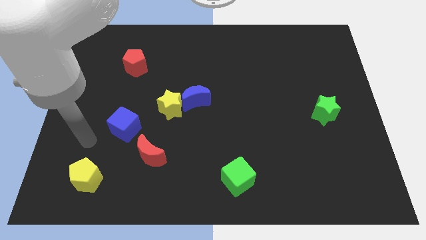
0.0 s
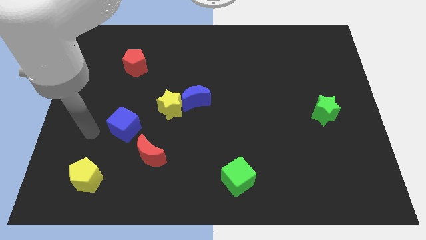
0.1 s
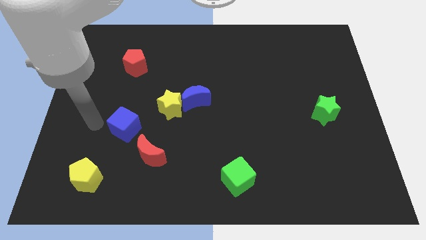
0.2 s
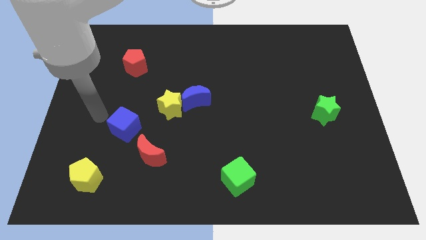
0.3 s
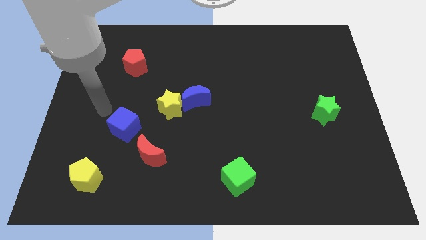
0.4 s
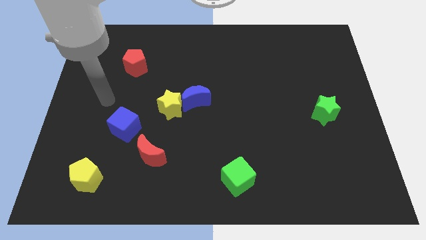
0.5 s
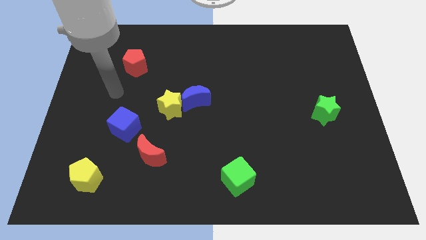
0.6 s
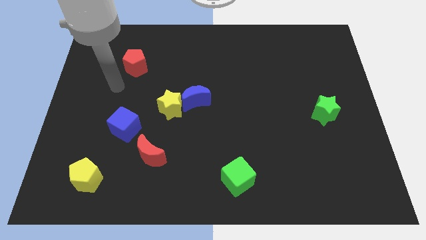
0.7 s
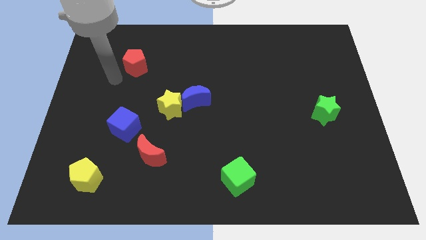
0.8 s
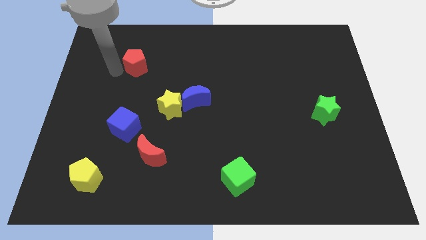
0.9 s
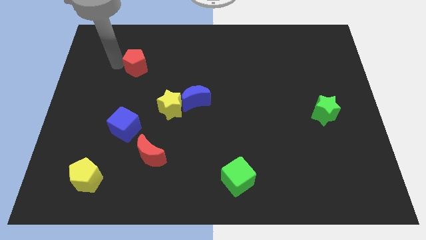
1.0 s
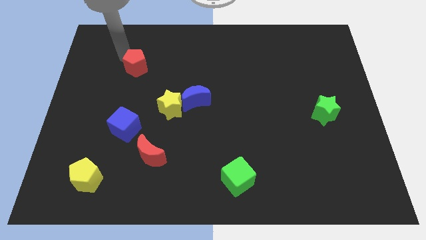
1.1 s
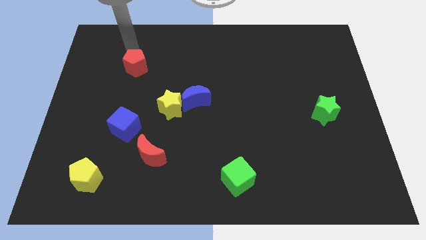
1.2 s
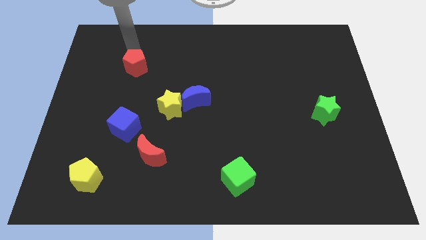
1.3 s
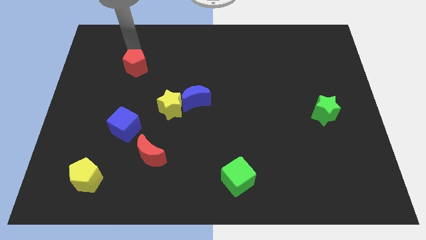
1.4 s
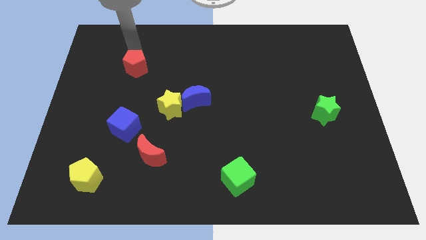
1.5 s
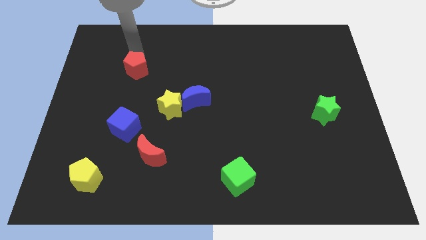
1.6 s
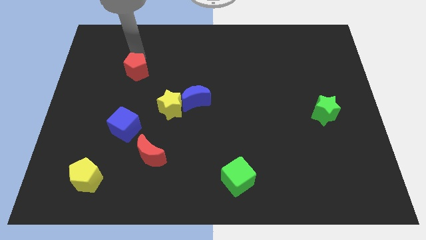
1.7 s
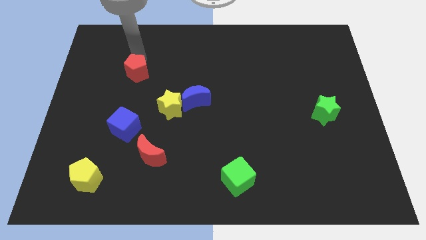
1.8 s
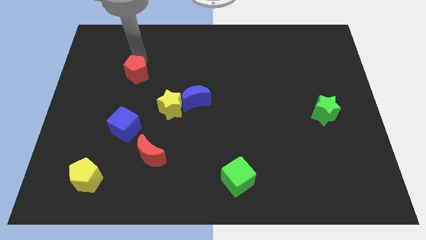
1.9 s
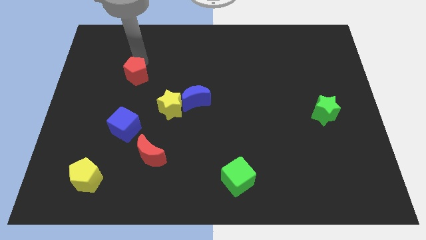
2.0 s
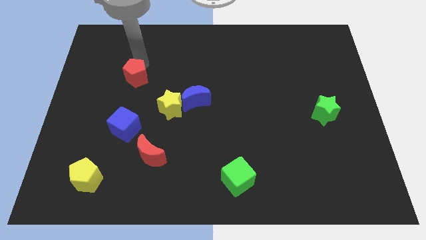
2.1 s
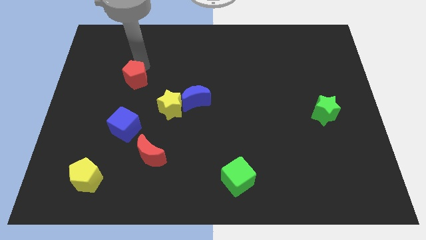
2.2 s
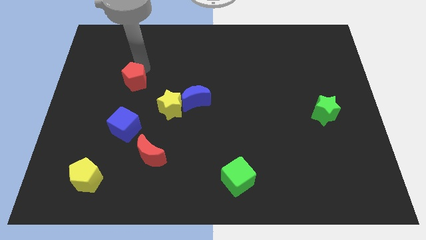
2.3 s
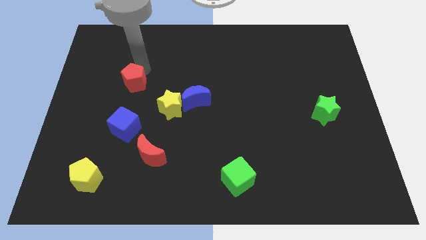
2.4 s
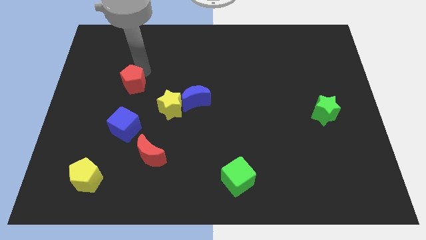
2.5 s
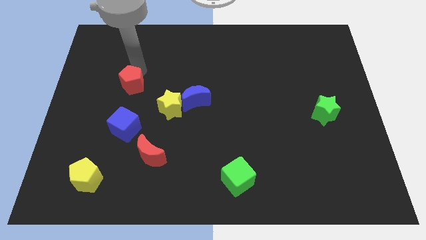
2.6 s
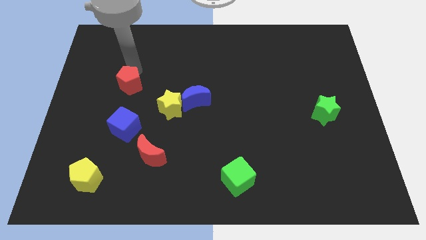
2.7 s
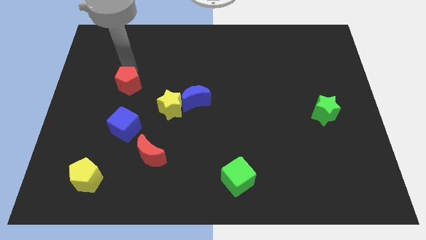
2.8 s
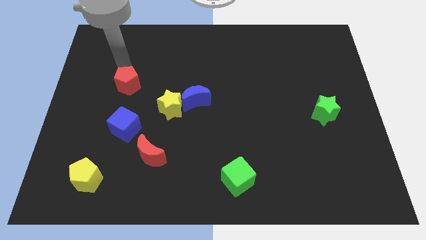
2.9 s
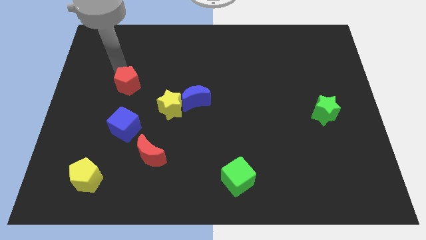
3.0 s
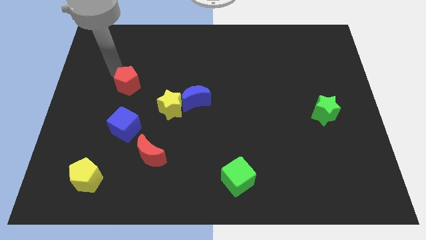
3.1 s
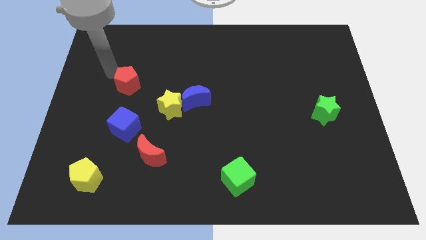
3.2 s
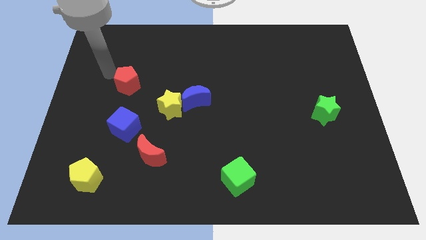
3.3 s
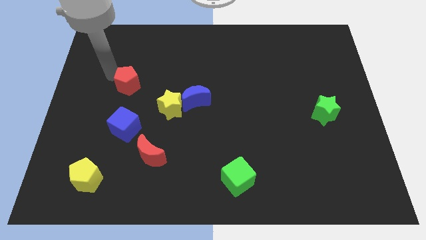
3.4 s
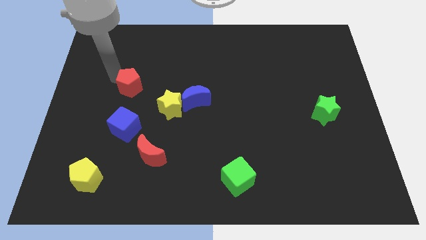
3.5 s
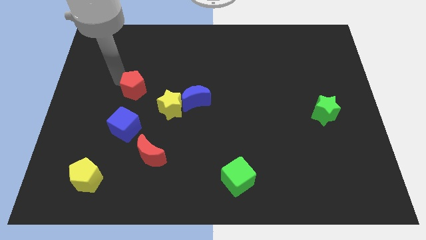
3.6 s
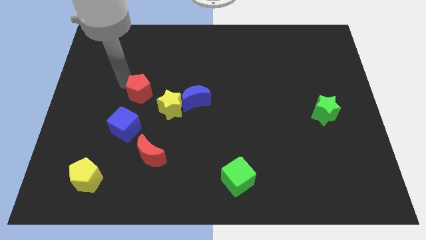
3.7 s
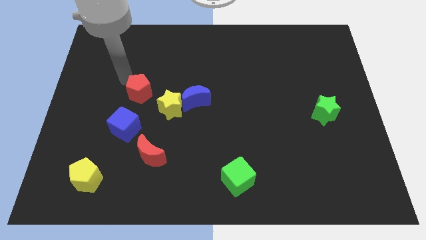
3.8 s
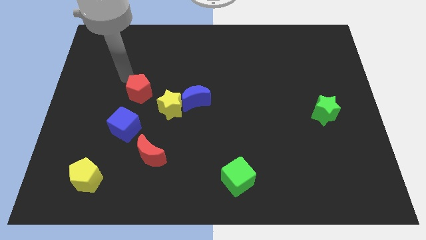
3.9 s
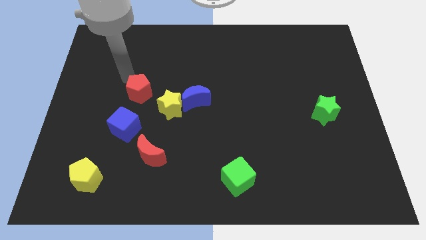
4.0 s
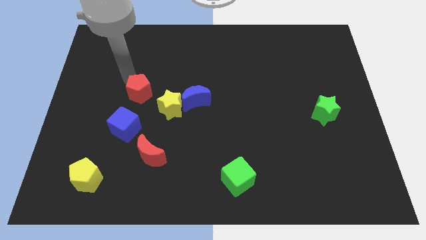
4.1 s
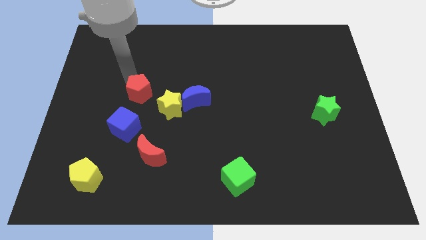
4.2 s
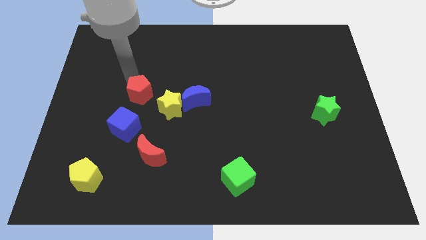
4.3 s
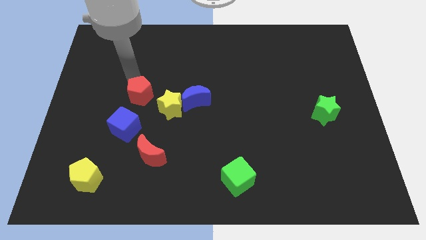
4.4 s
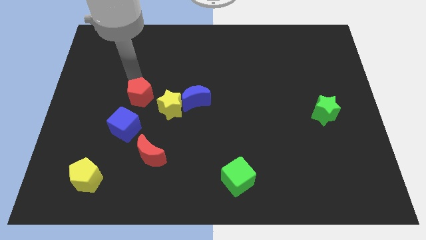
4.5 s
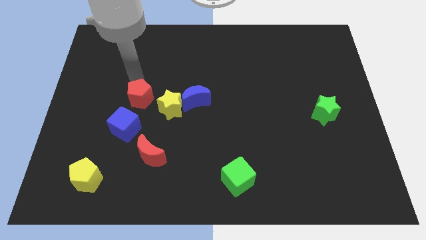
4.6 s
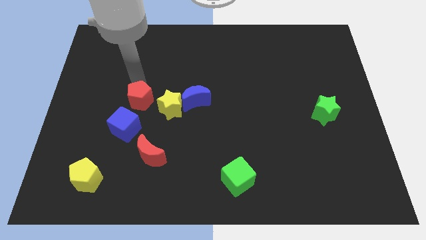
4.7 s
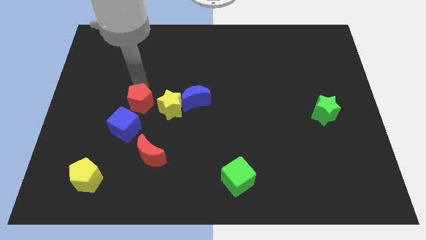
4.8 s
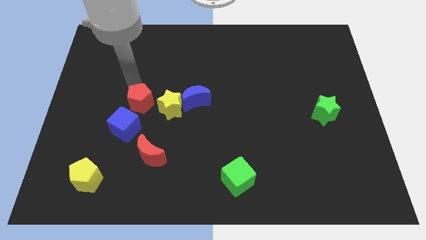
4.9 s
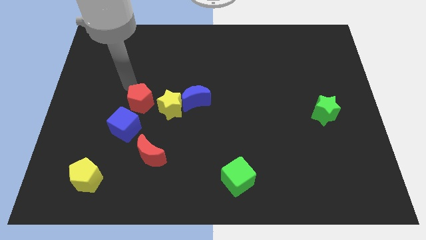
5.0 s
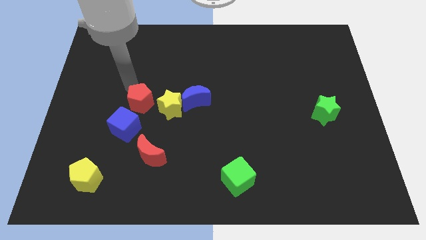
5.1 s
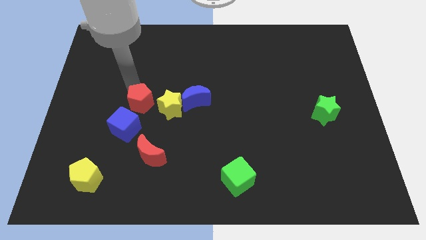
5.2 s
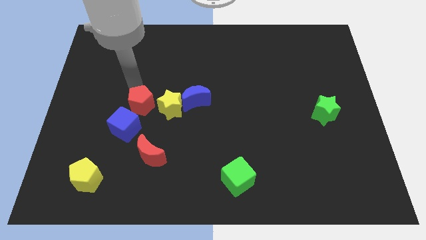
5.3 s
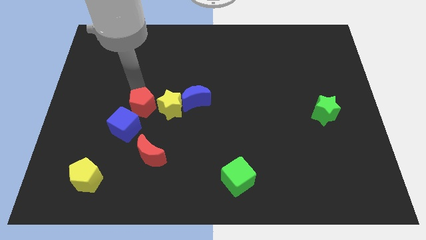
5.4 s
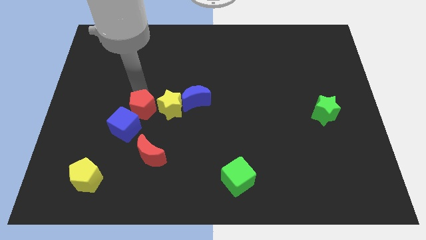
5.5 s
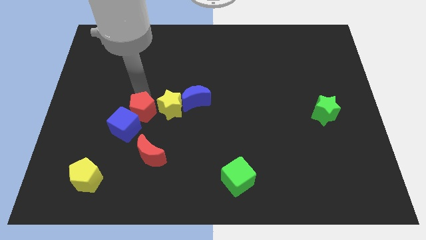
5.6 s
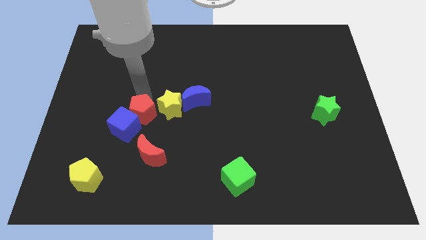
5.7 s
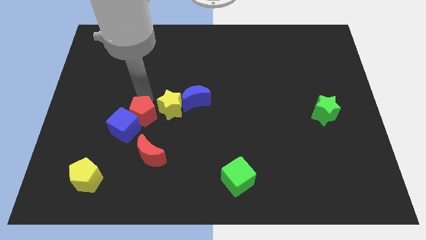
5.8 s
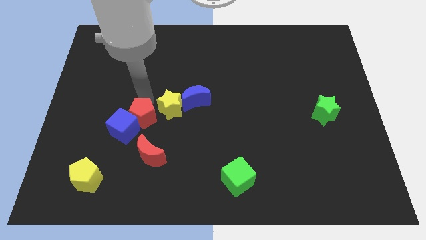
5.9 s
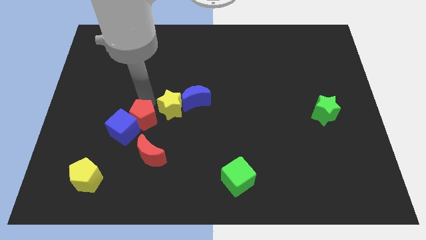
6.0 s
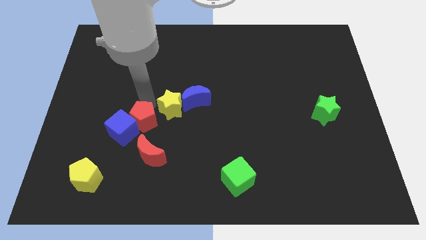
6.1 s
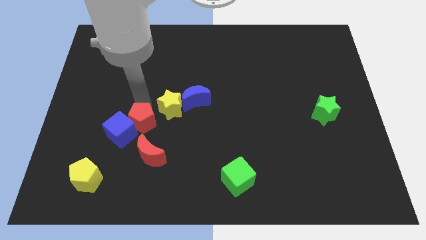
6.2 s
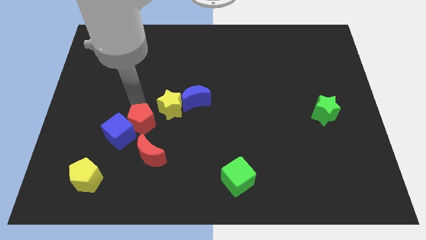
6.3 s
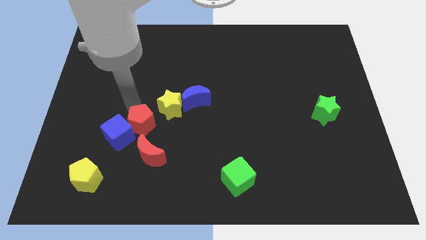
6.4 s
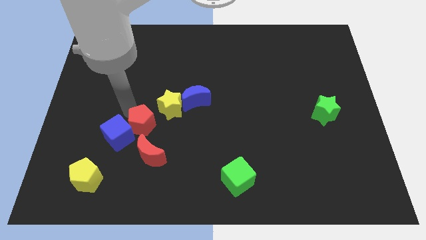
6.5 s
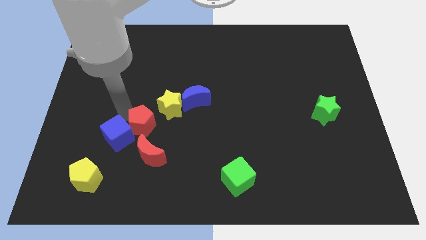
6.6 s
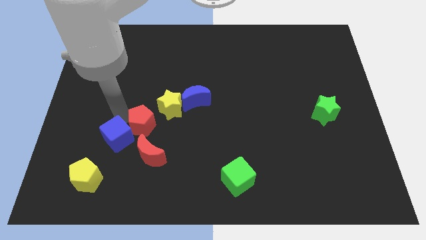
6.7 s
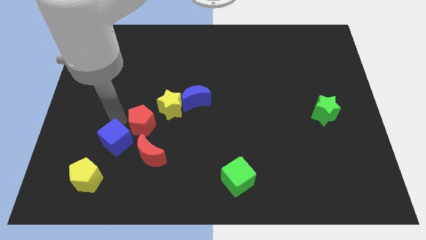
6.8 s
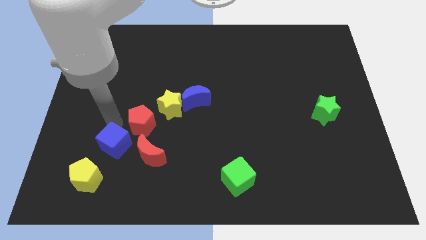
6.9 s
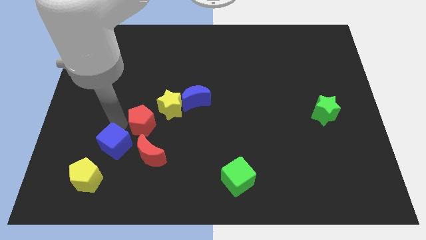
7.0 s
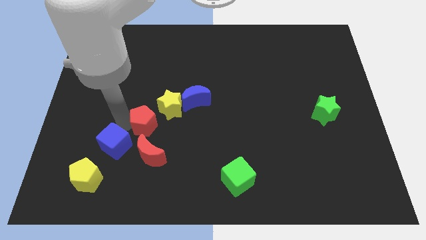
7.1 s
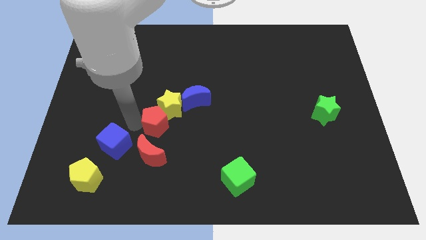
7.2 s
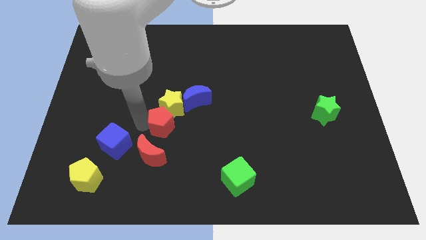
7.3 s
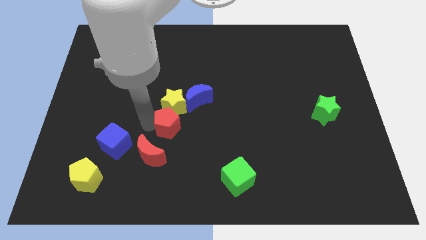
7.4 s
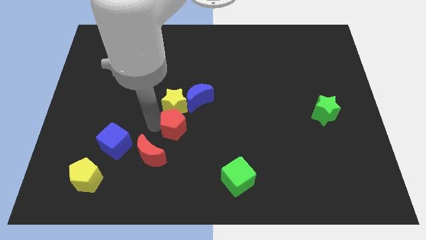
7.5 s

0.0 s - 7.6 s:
slide the red pentagon down and then to the right

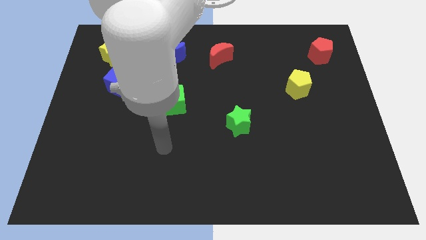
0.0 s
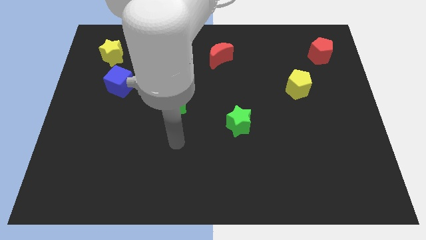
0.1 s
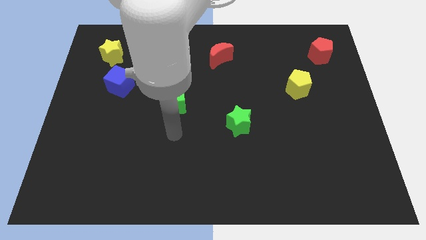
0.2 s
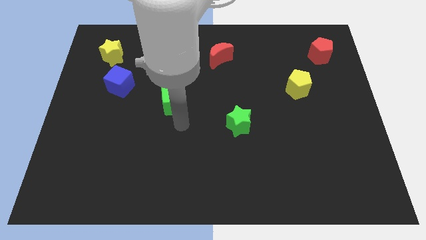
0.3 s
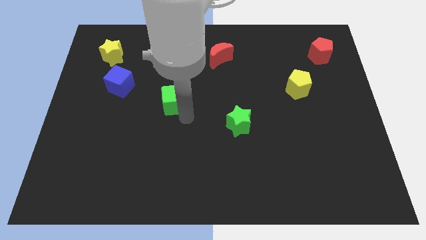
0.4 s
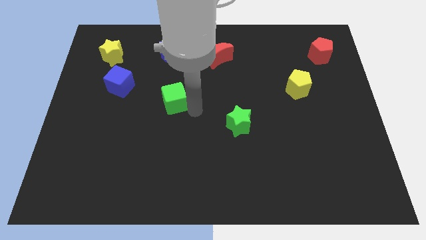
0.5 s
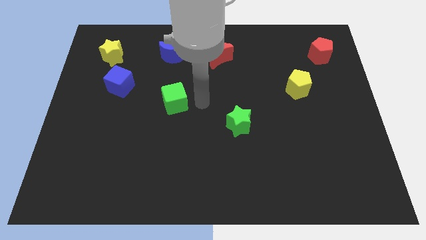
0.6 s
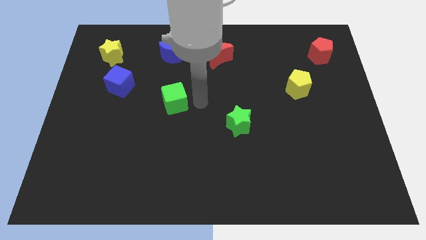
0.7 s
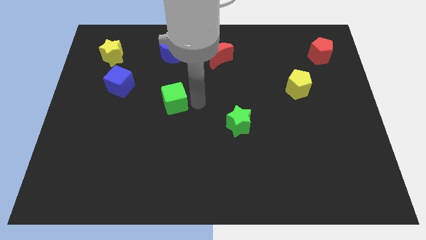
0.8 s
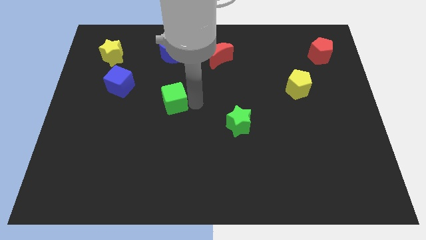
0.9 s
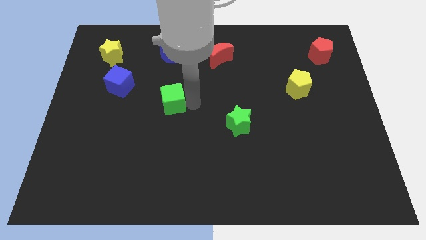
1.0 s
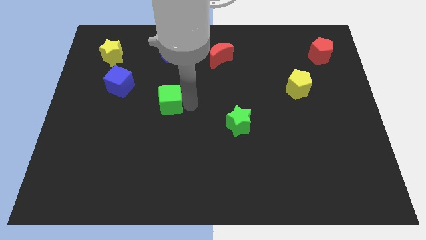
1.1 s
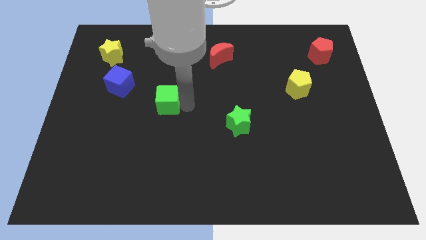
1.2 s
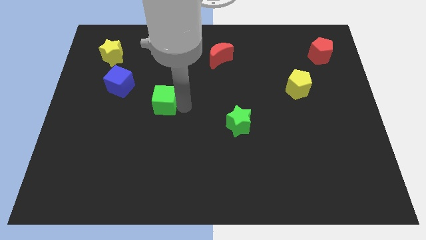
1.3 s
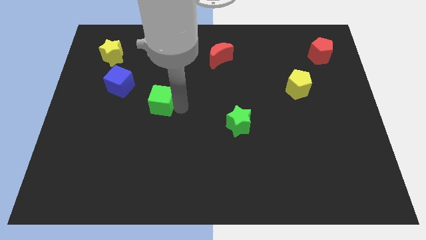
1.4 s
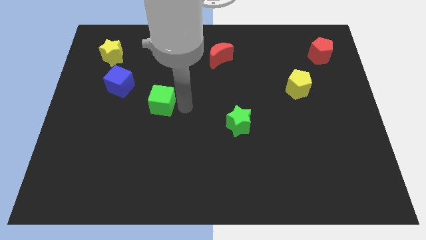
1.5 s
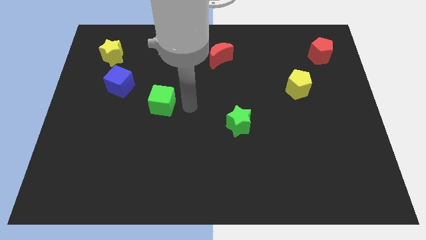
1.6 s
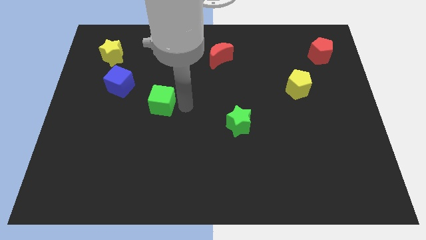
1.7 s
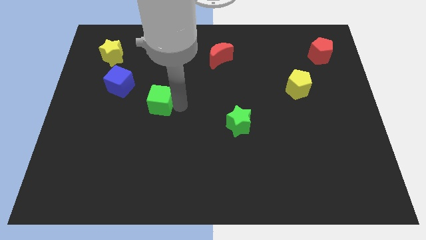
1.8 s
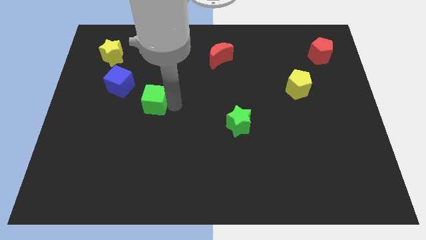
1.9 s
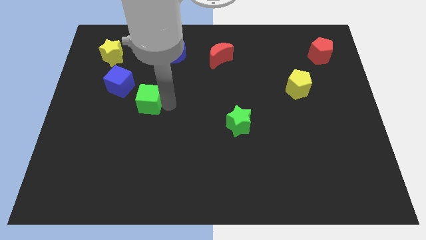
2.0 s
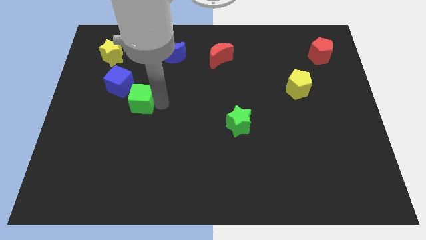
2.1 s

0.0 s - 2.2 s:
push the green cube left slightly
